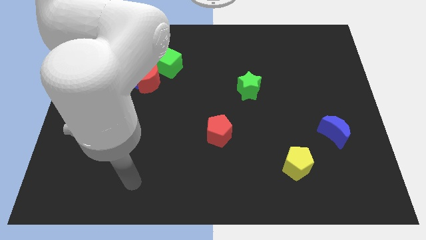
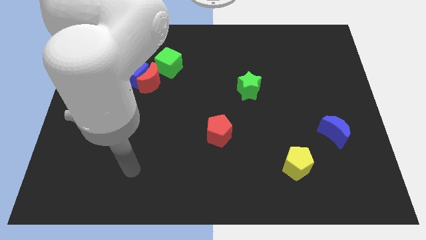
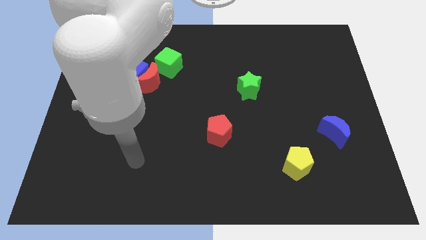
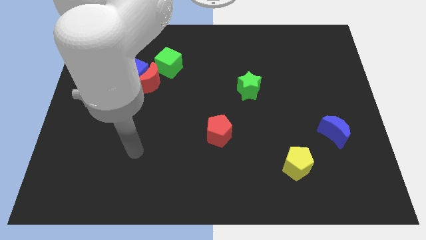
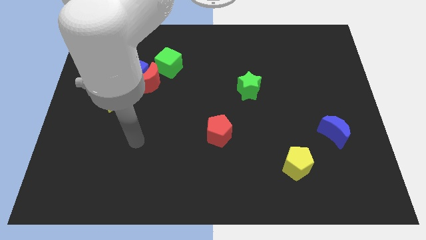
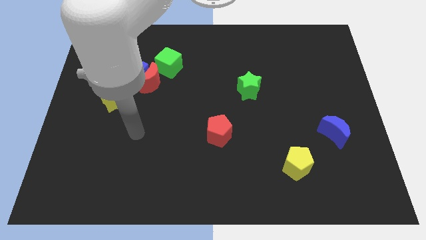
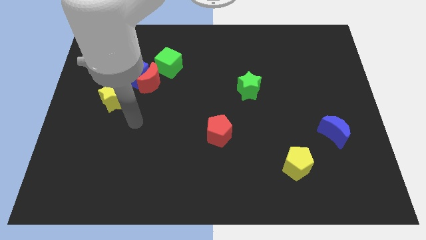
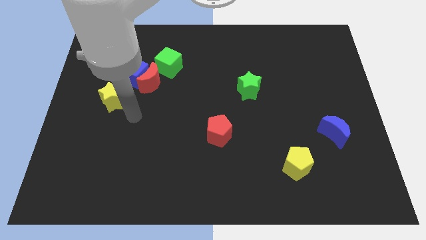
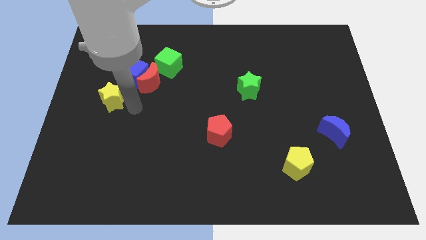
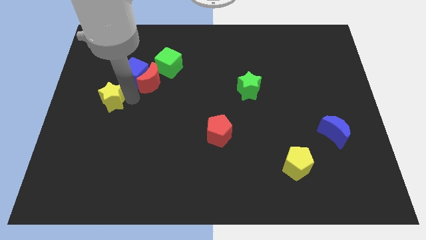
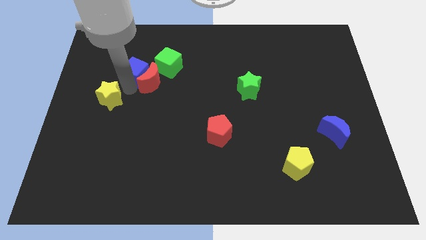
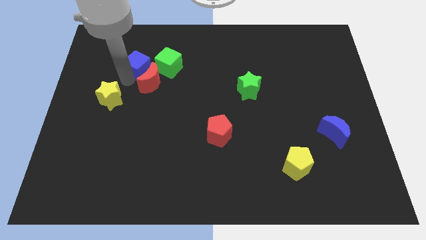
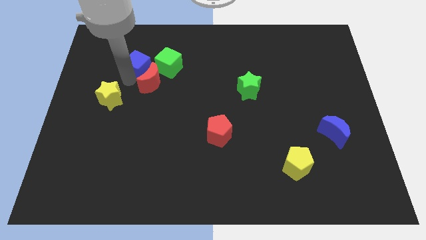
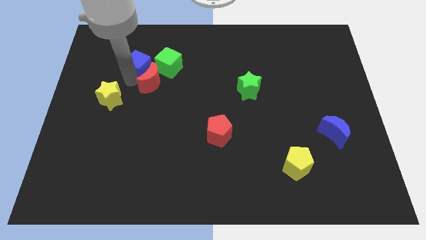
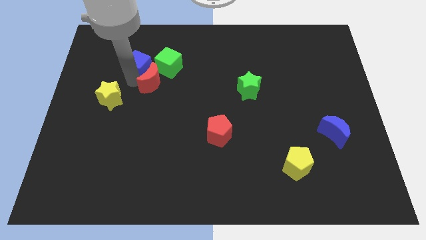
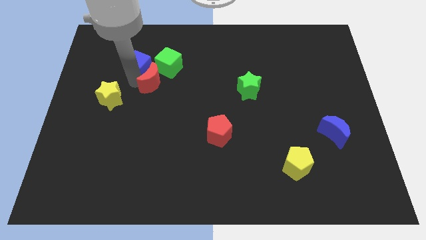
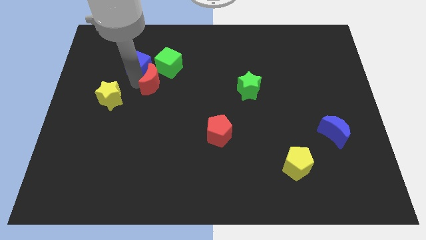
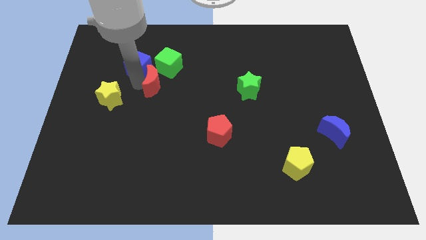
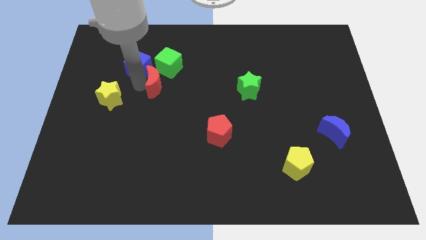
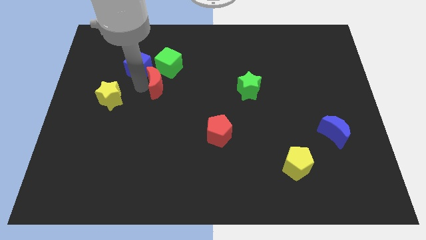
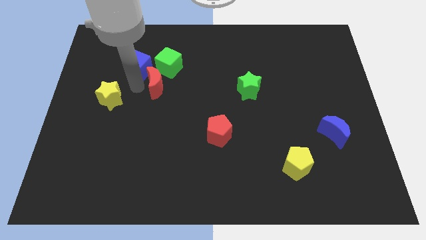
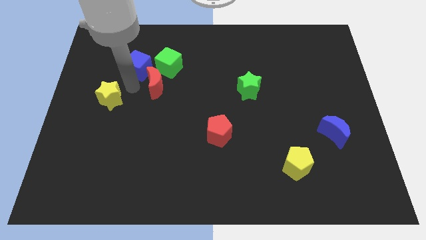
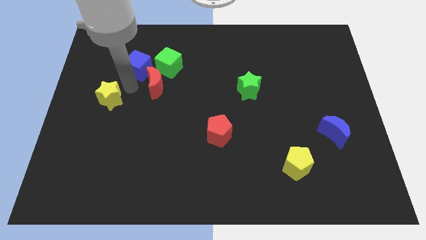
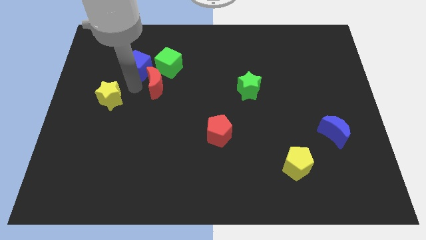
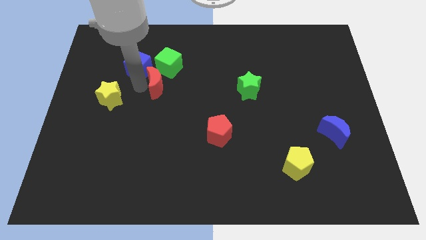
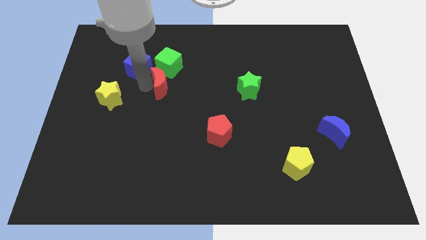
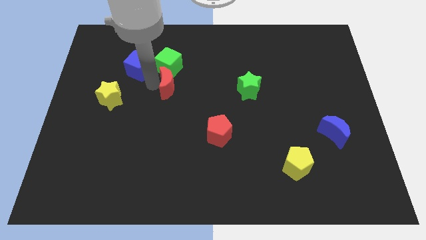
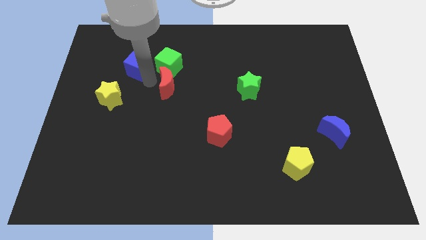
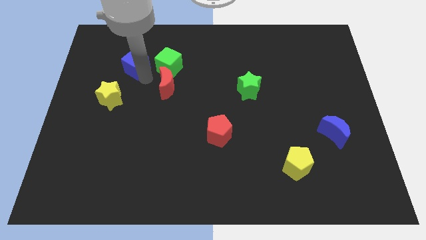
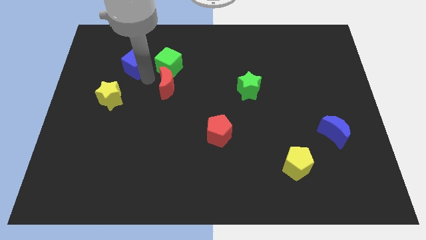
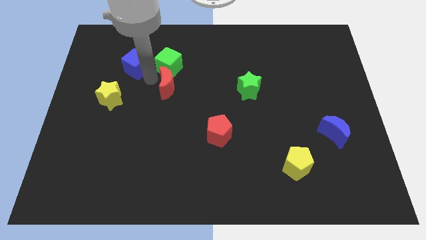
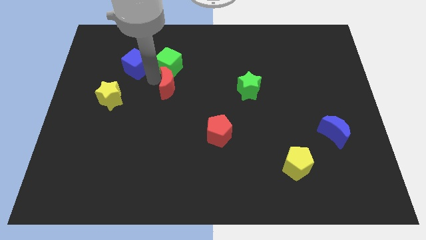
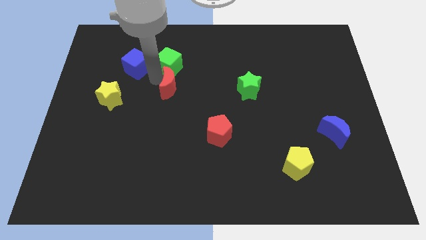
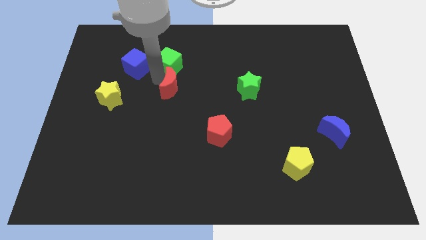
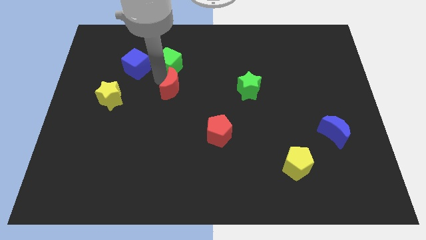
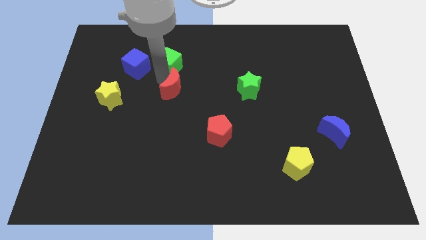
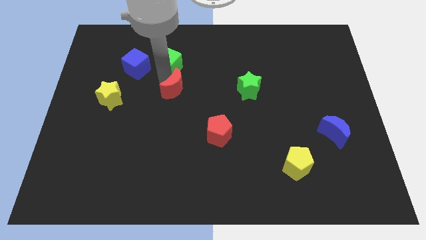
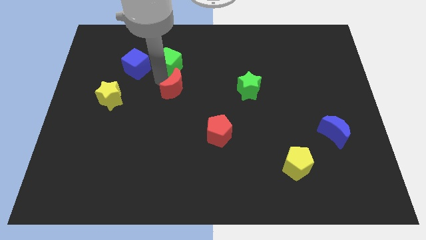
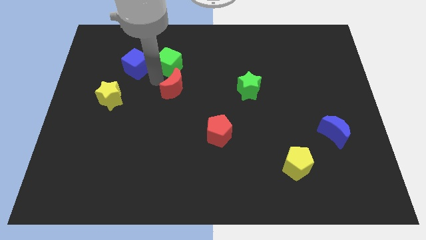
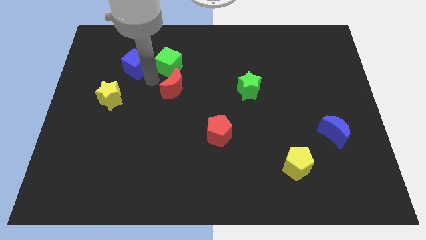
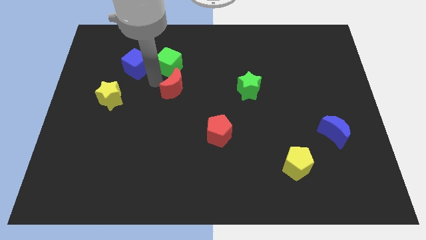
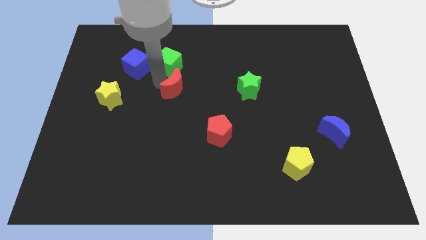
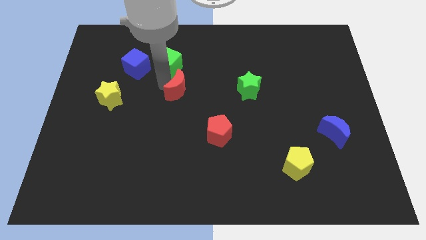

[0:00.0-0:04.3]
separate the red moon from the blue cube, green cube, and yellow star

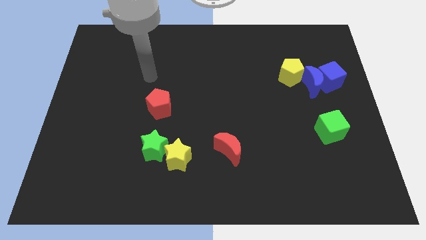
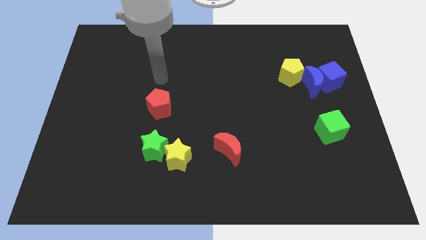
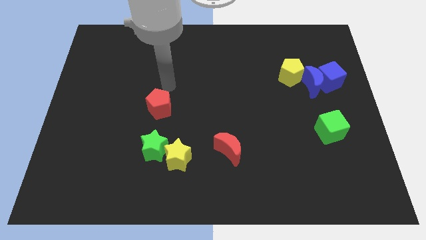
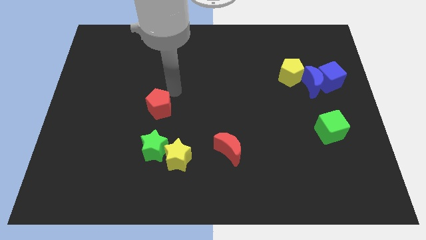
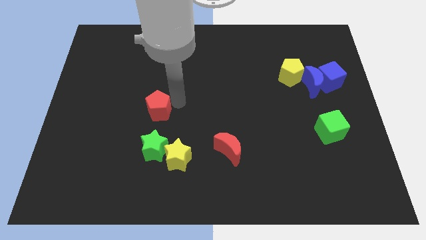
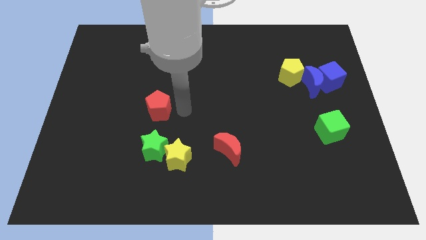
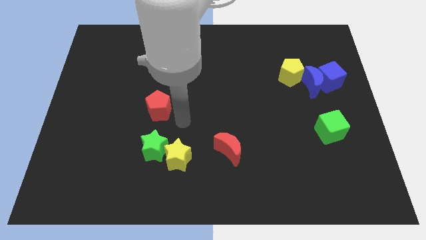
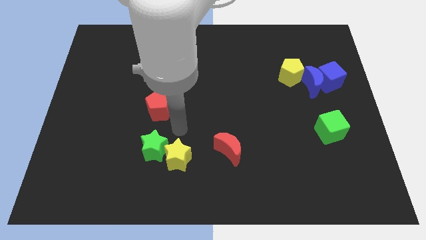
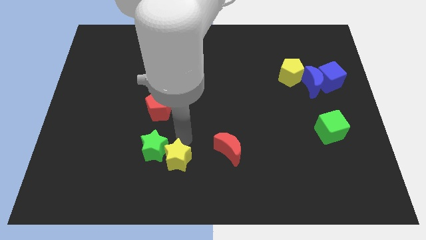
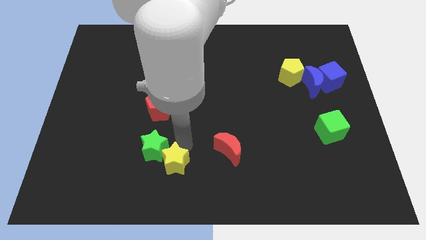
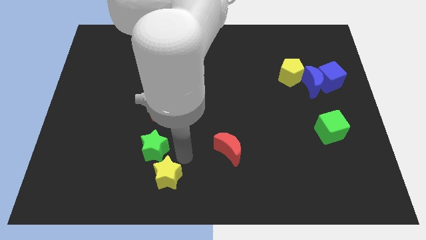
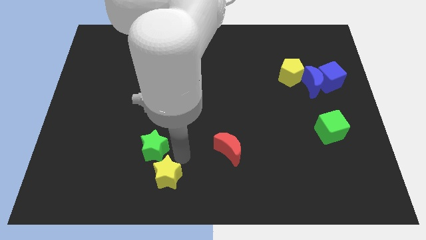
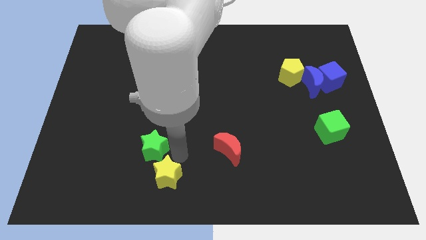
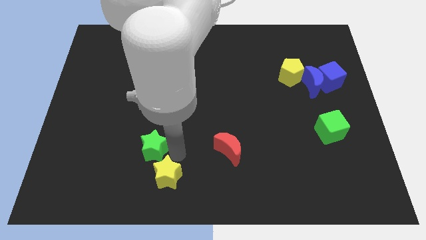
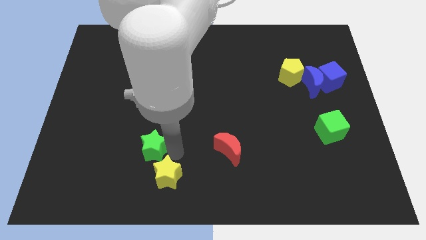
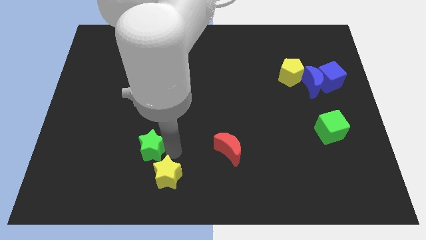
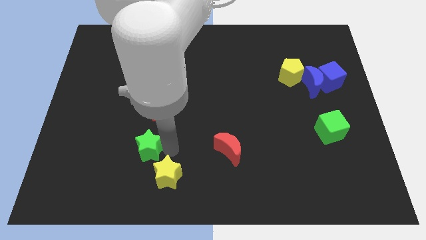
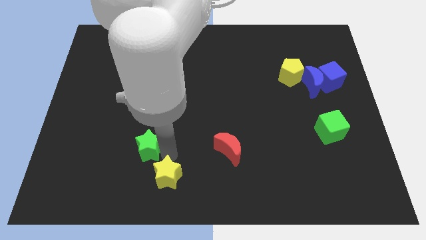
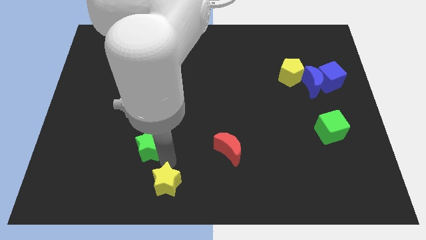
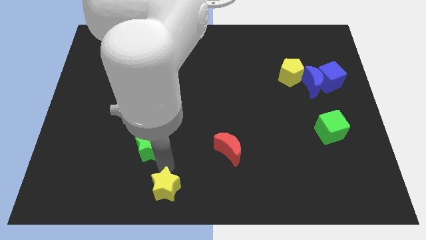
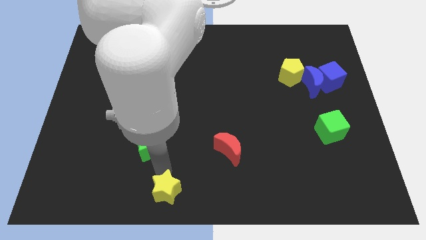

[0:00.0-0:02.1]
separate the green star from the yellow star

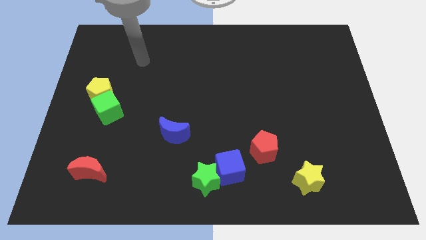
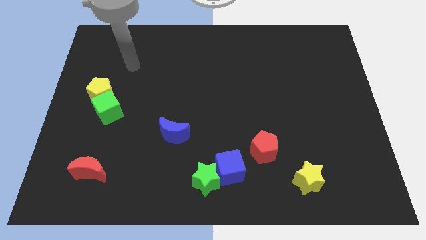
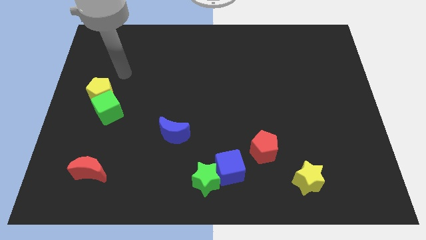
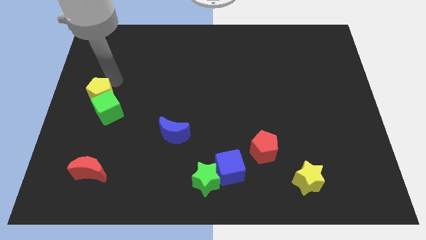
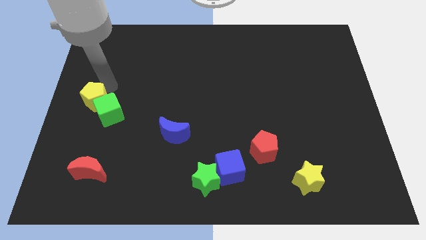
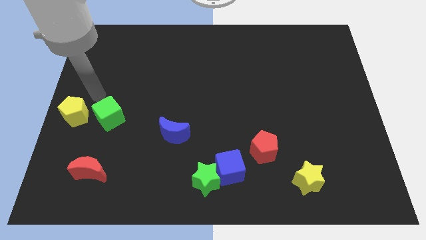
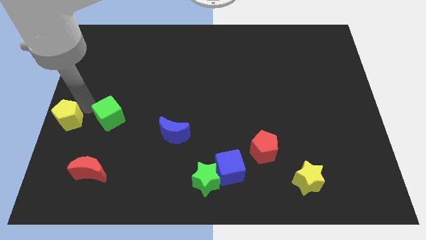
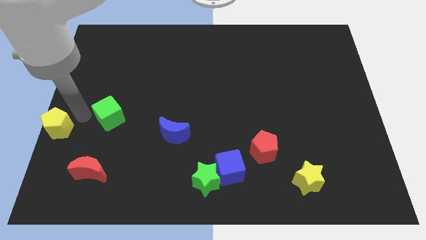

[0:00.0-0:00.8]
separate the green cube from the yellow pentagon

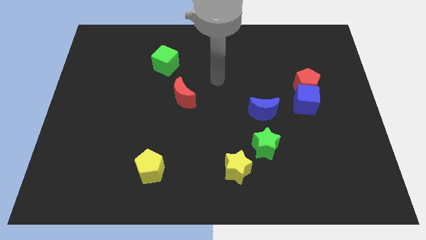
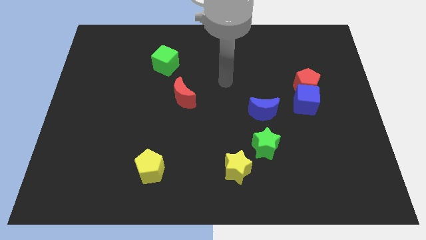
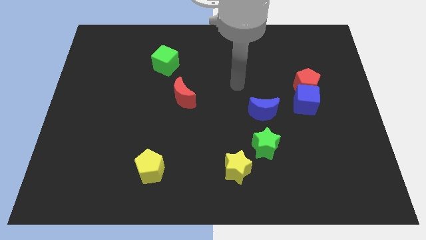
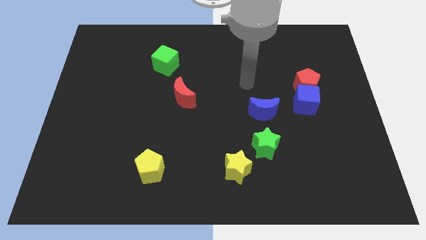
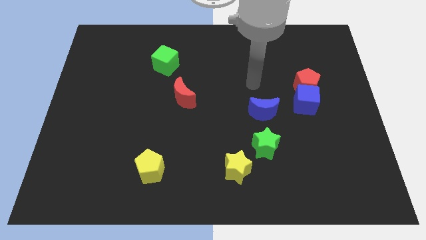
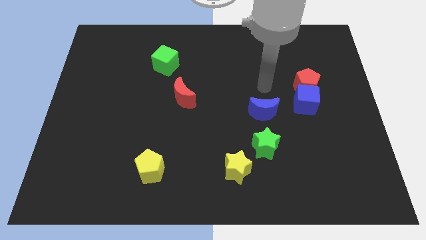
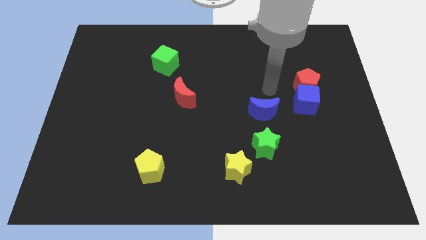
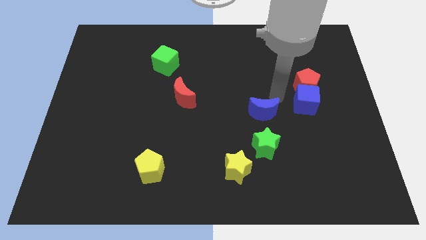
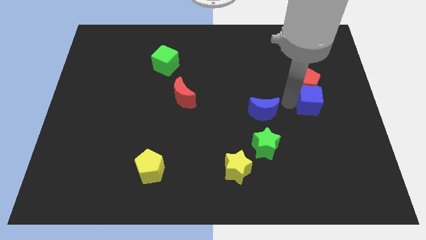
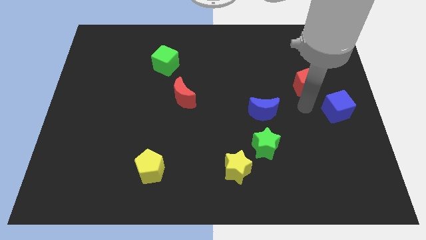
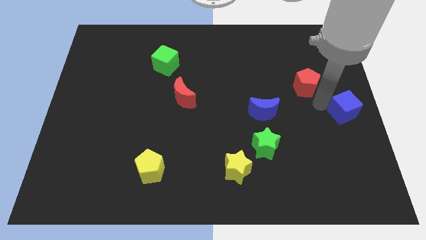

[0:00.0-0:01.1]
separate the red pentagon from the blue cube

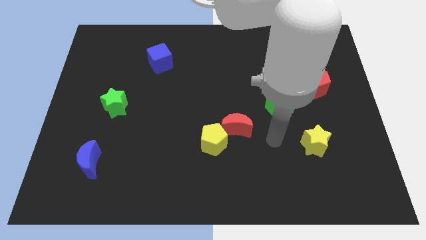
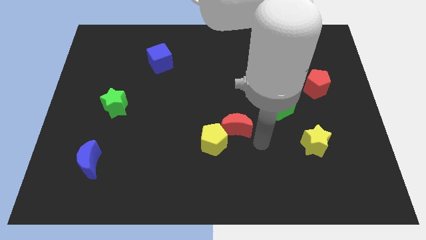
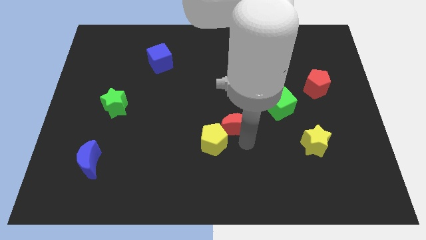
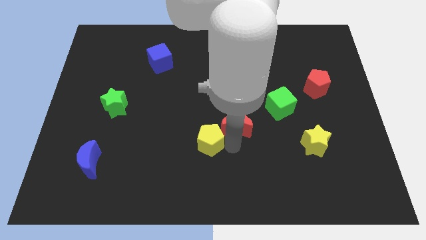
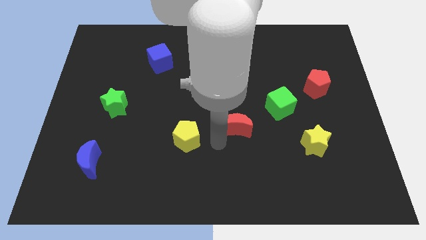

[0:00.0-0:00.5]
move the red moon away from the yellow pentagon

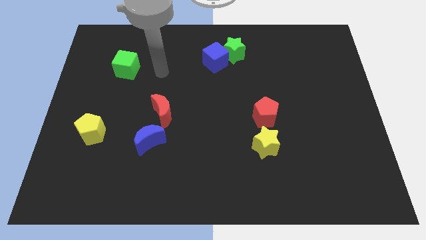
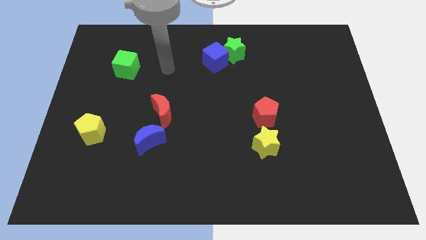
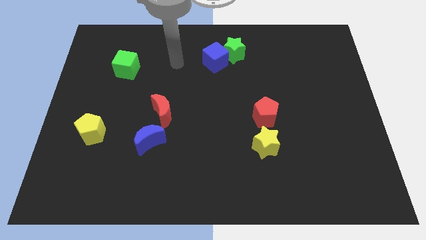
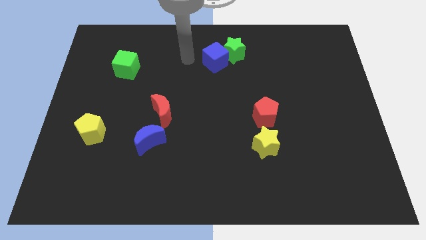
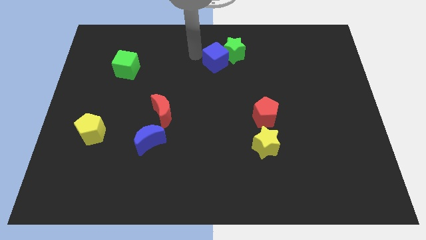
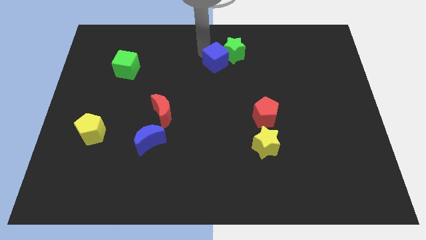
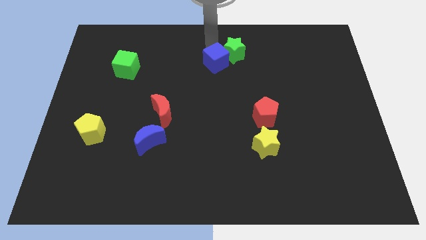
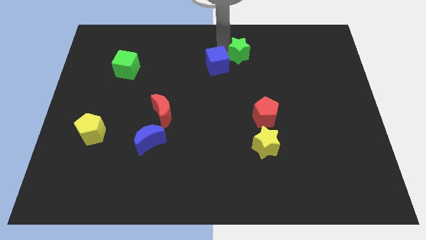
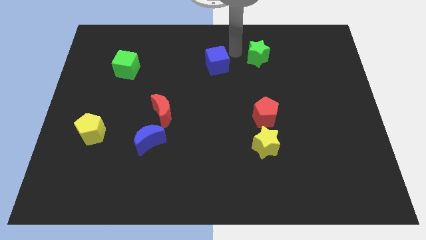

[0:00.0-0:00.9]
separate the blue cube from the green star
